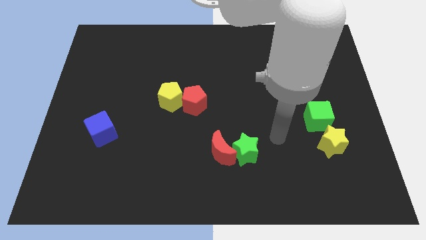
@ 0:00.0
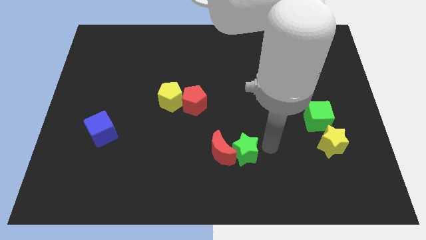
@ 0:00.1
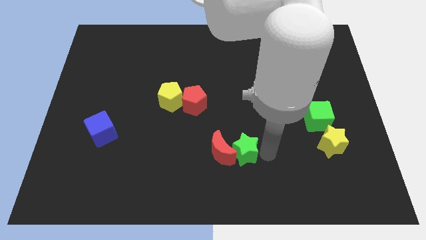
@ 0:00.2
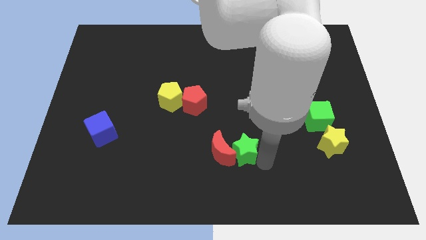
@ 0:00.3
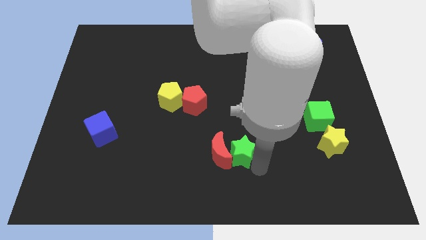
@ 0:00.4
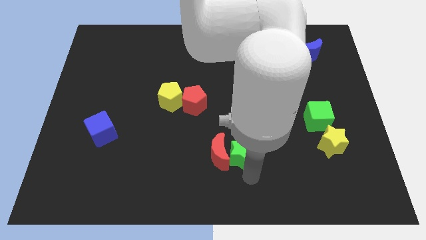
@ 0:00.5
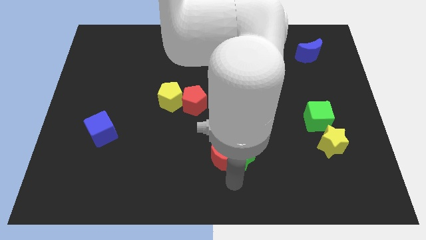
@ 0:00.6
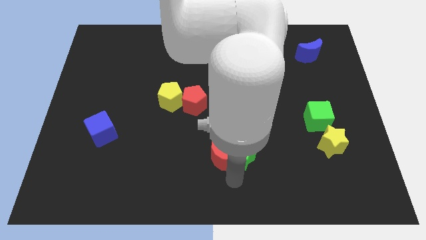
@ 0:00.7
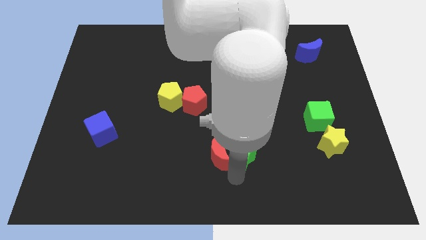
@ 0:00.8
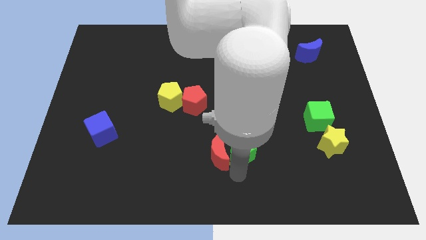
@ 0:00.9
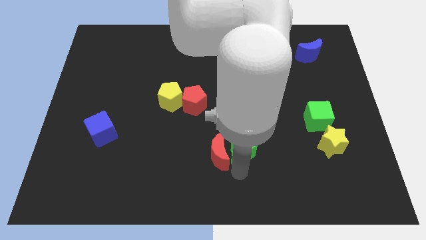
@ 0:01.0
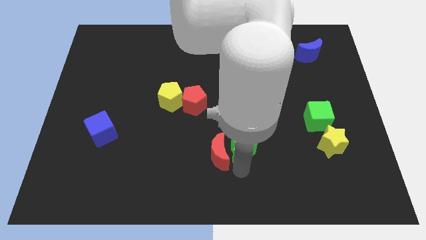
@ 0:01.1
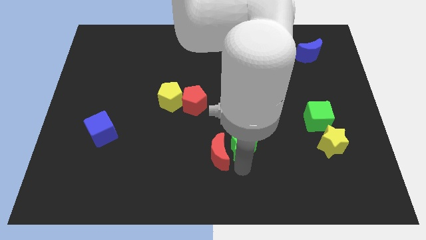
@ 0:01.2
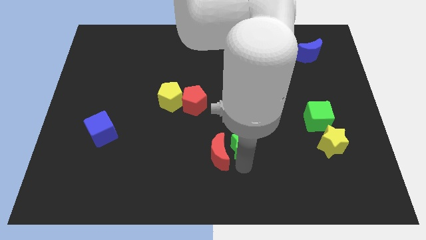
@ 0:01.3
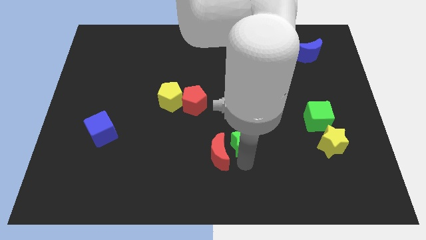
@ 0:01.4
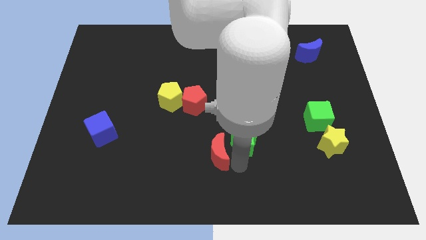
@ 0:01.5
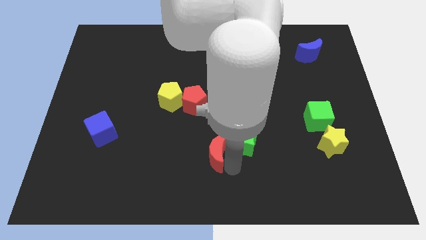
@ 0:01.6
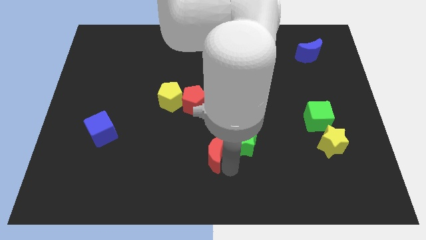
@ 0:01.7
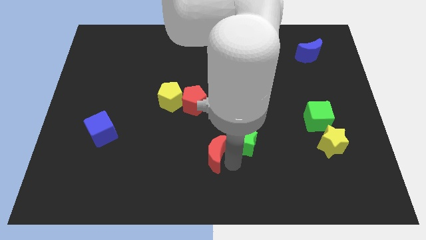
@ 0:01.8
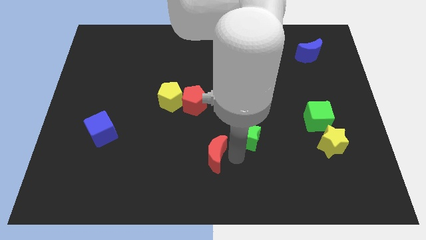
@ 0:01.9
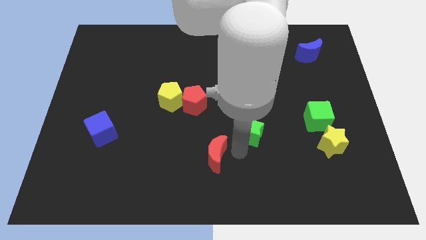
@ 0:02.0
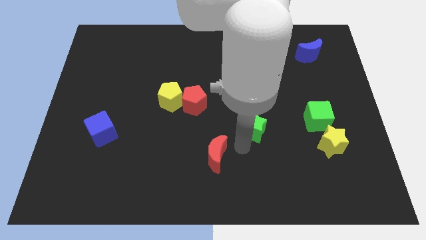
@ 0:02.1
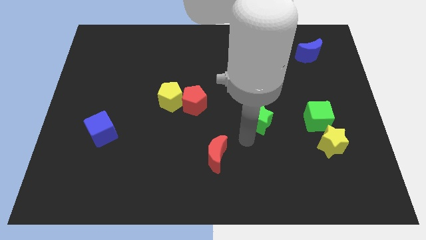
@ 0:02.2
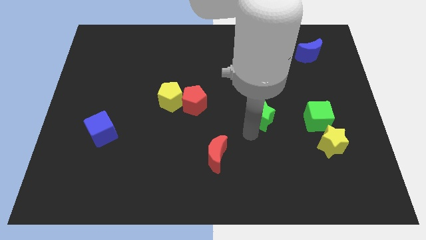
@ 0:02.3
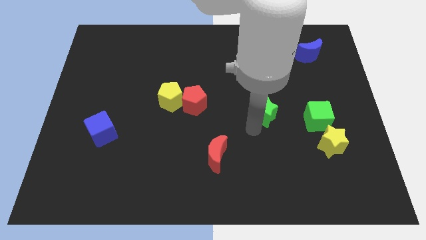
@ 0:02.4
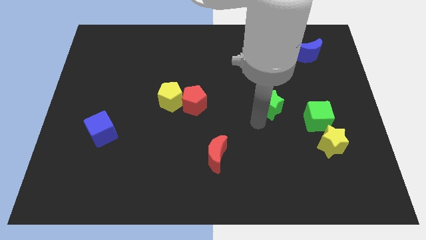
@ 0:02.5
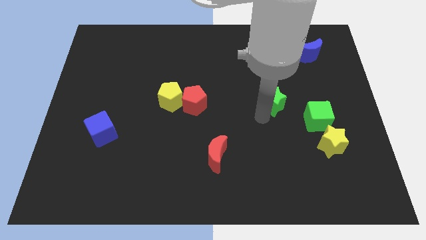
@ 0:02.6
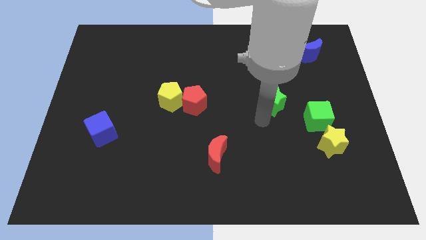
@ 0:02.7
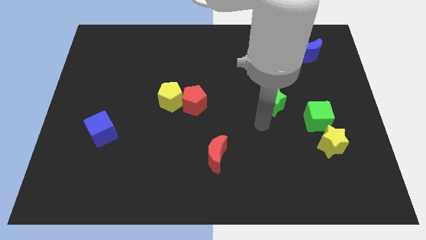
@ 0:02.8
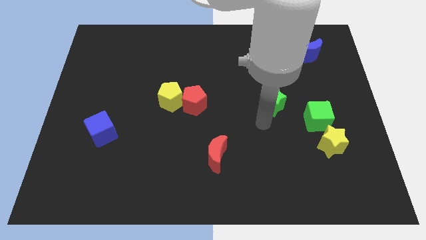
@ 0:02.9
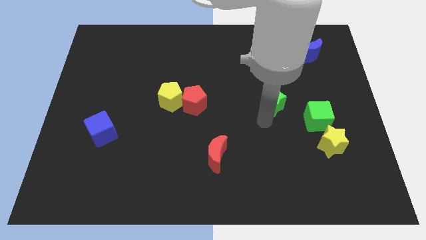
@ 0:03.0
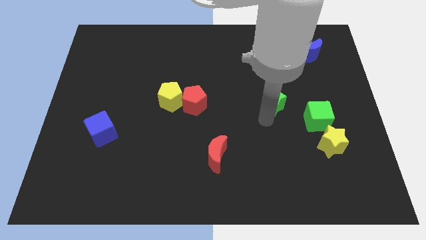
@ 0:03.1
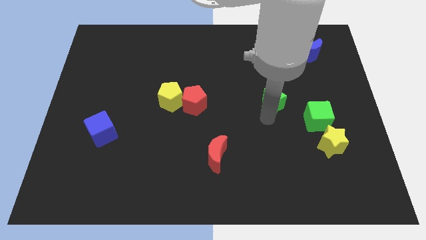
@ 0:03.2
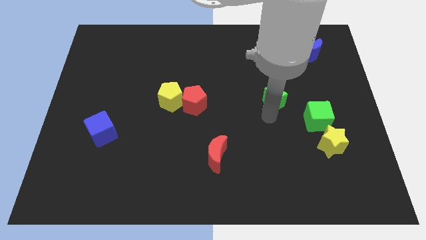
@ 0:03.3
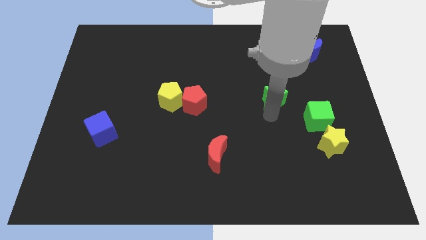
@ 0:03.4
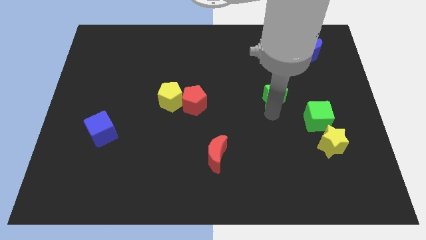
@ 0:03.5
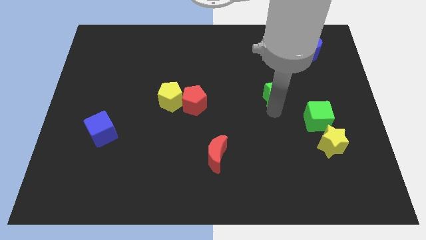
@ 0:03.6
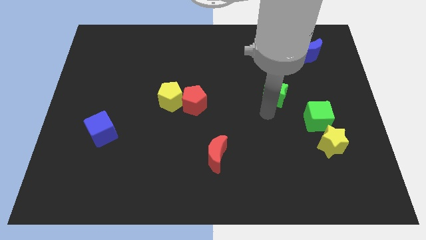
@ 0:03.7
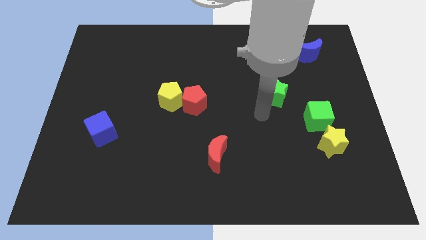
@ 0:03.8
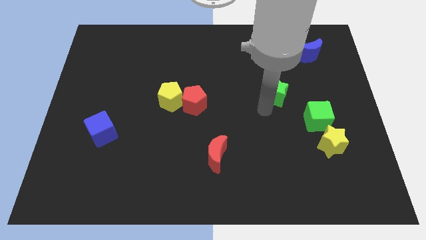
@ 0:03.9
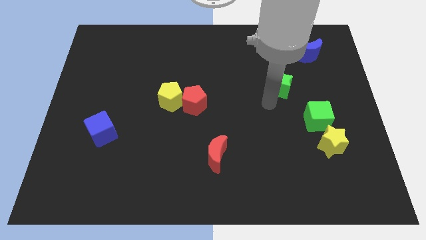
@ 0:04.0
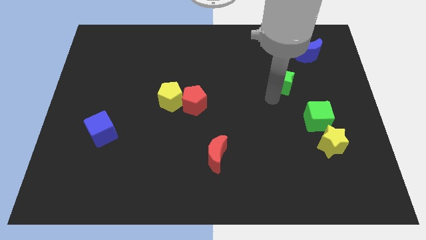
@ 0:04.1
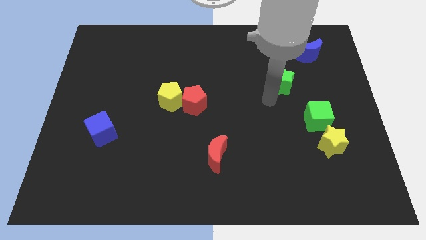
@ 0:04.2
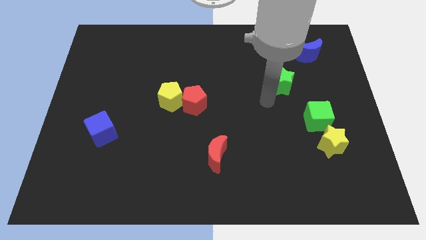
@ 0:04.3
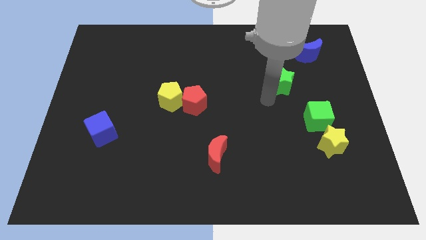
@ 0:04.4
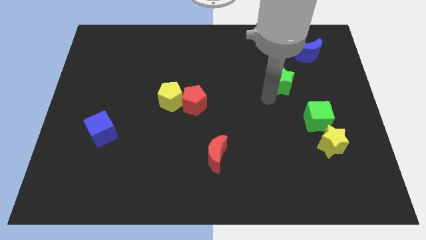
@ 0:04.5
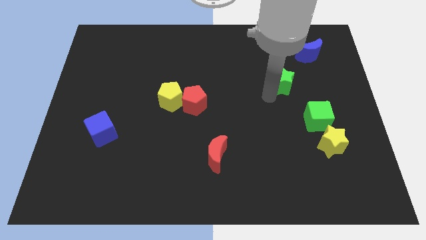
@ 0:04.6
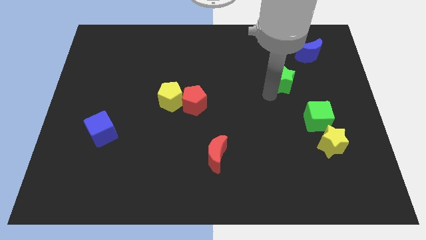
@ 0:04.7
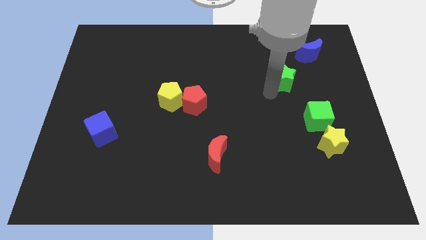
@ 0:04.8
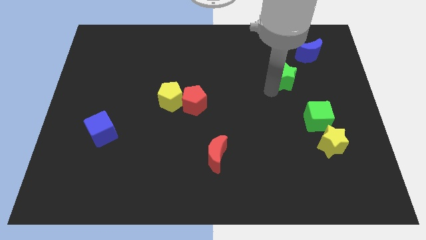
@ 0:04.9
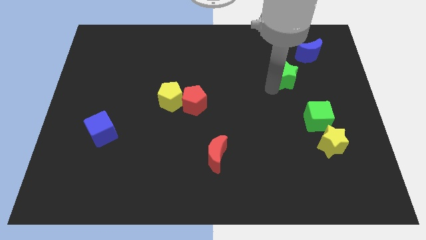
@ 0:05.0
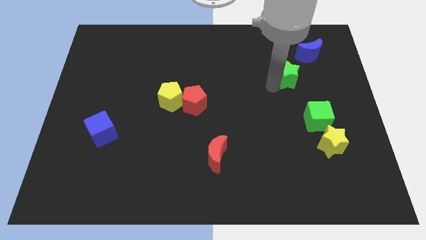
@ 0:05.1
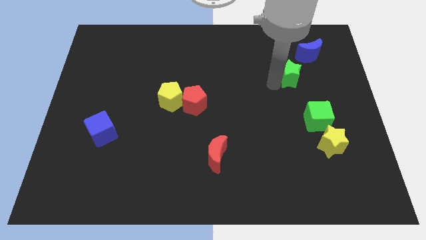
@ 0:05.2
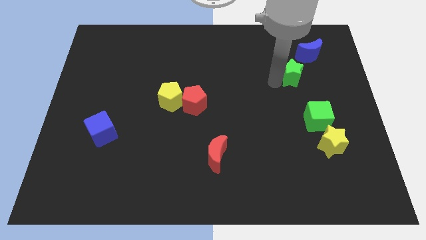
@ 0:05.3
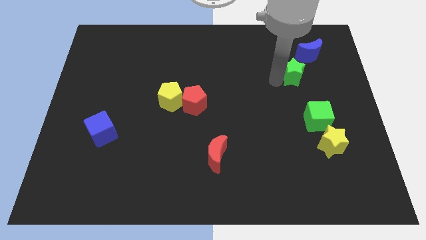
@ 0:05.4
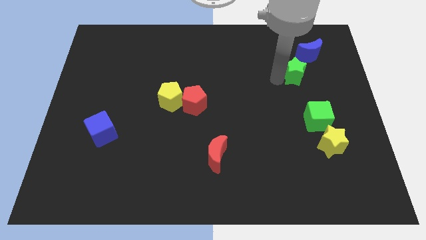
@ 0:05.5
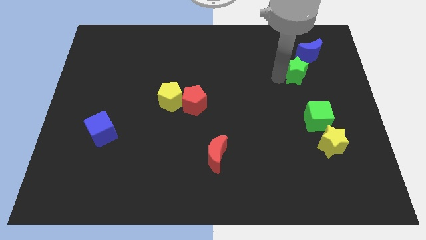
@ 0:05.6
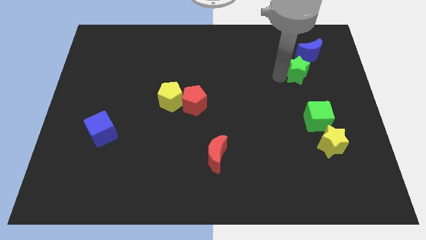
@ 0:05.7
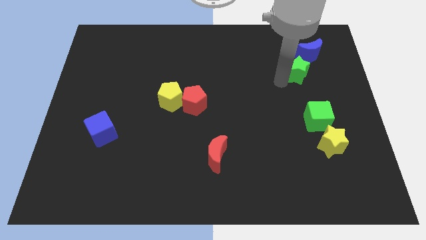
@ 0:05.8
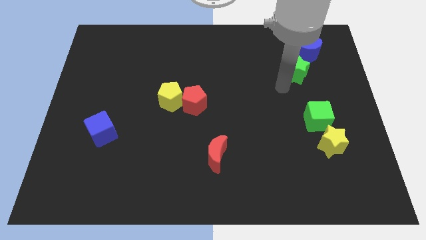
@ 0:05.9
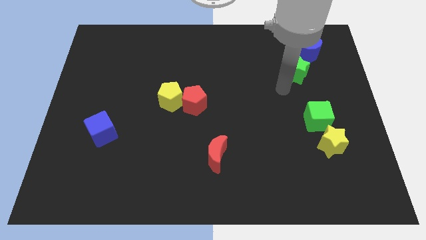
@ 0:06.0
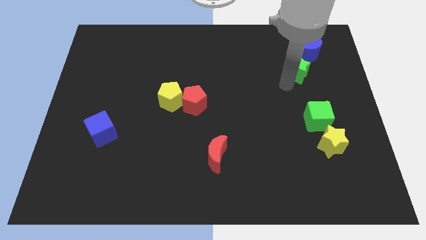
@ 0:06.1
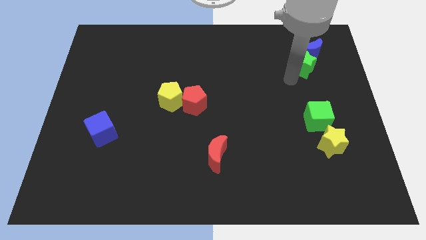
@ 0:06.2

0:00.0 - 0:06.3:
put the green star next to the blue moon
